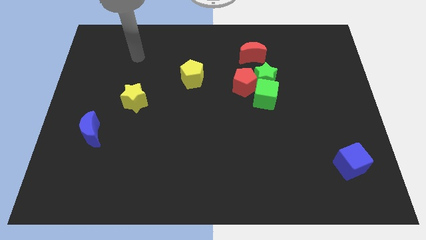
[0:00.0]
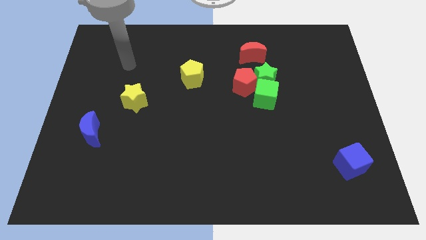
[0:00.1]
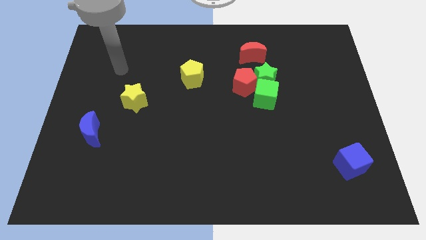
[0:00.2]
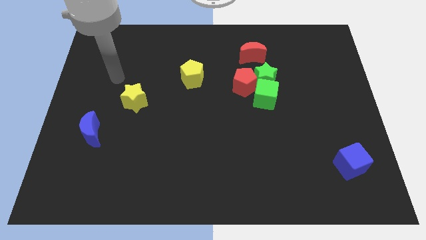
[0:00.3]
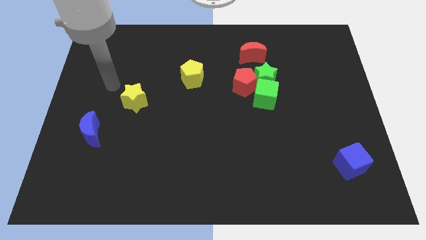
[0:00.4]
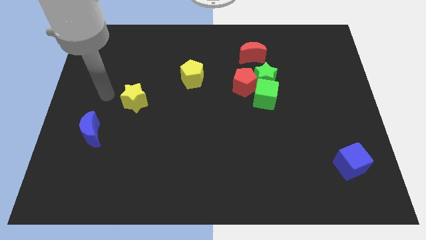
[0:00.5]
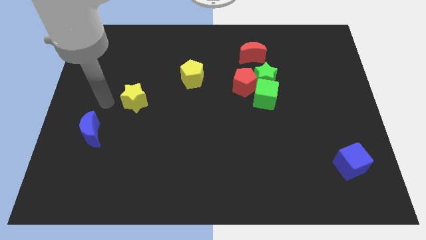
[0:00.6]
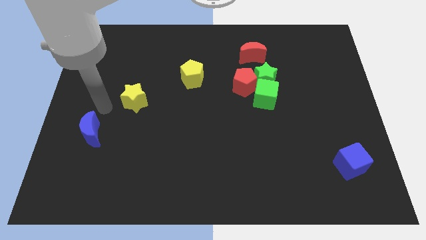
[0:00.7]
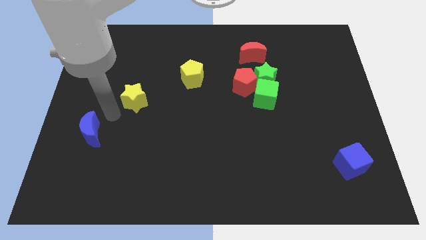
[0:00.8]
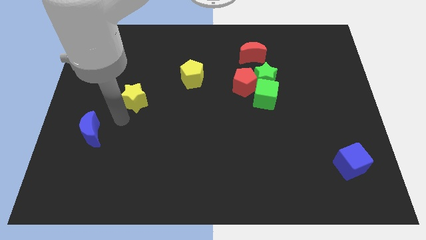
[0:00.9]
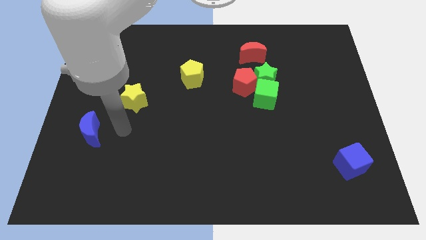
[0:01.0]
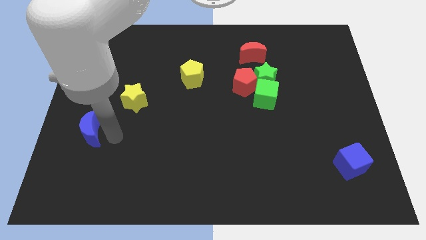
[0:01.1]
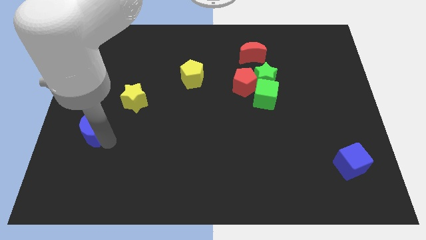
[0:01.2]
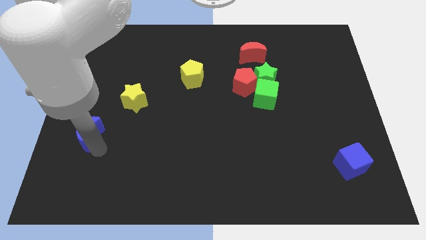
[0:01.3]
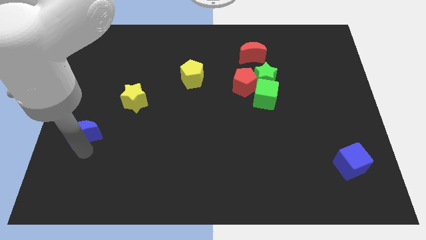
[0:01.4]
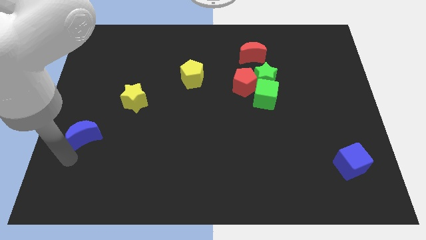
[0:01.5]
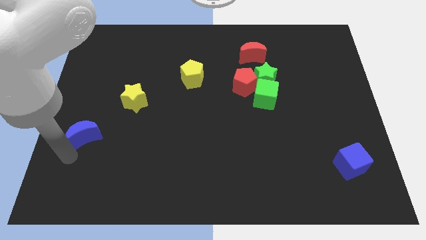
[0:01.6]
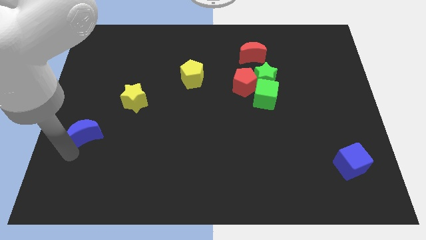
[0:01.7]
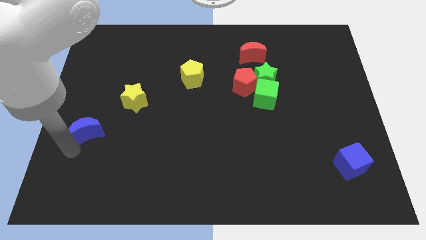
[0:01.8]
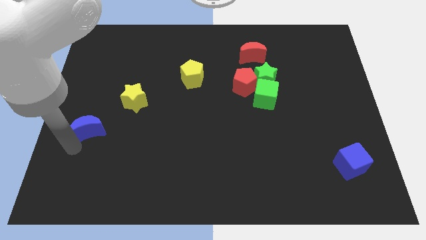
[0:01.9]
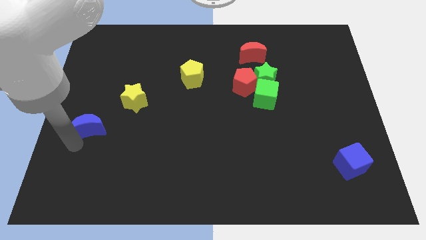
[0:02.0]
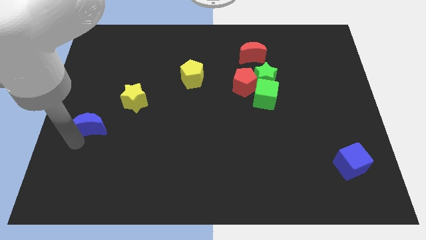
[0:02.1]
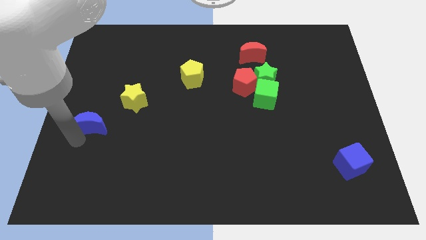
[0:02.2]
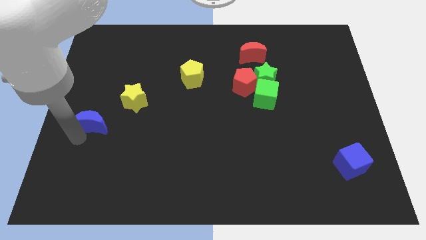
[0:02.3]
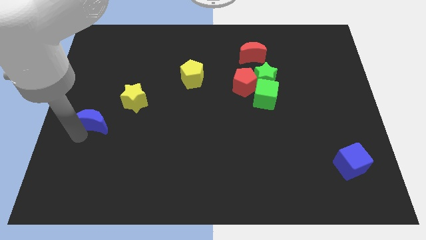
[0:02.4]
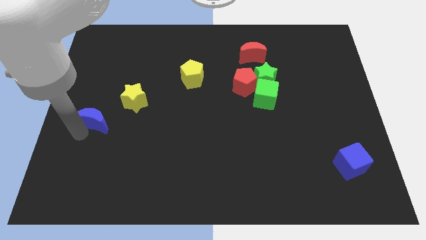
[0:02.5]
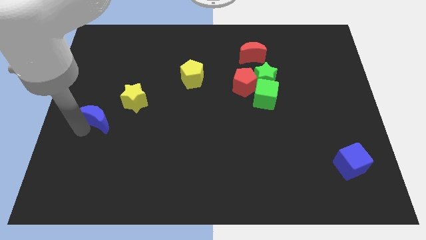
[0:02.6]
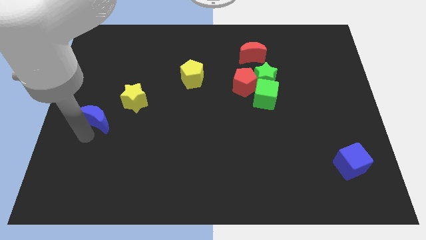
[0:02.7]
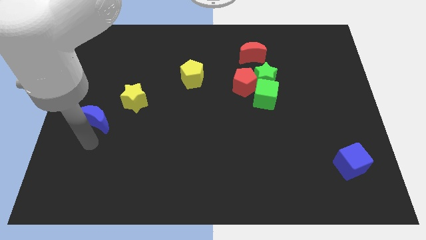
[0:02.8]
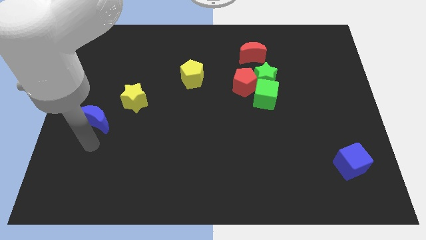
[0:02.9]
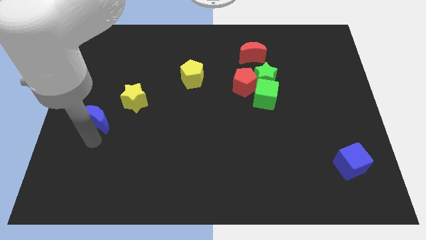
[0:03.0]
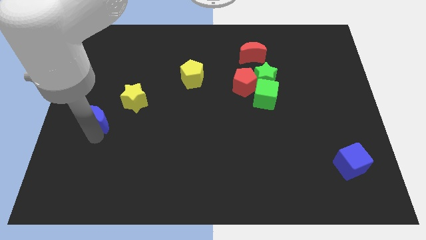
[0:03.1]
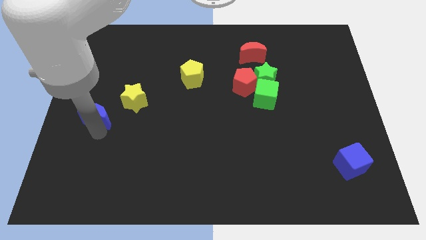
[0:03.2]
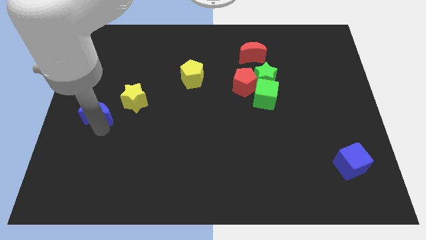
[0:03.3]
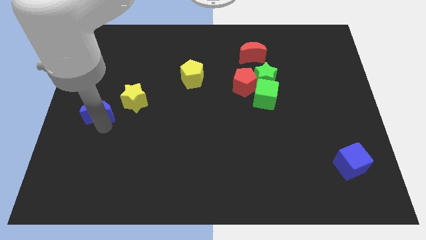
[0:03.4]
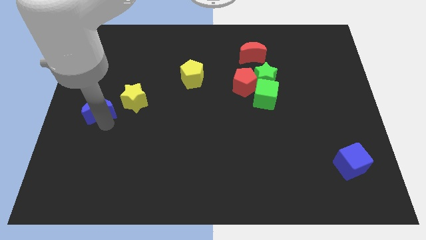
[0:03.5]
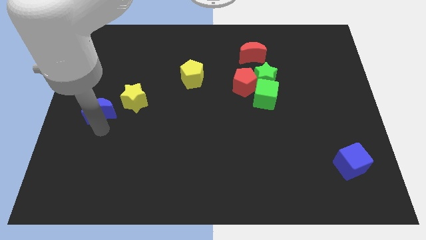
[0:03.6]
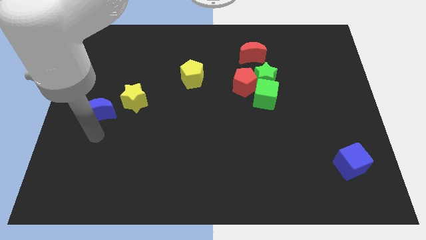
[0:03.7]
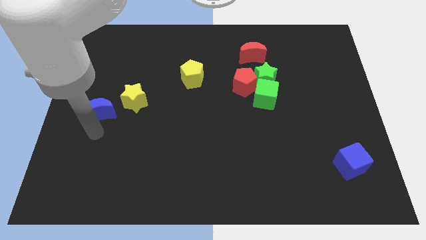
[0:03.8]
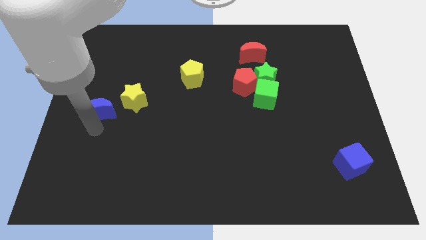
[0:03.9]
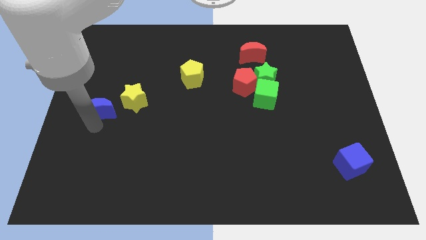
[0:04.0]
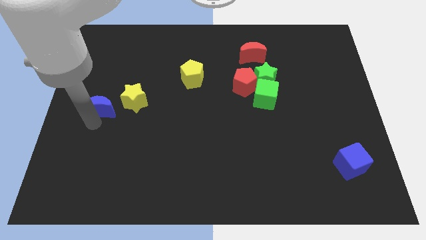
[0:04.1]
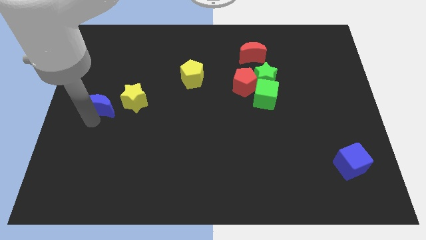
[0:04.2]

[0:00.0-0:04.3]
move the blue moon somewhat upwards

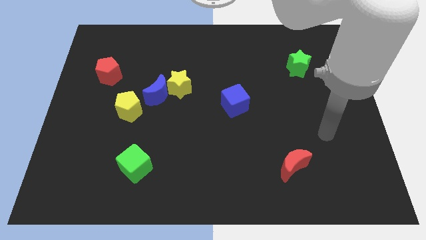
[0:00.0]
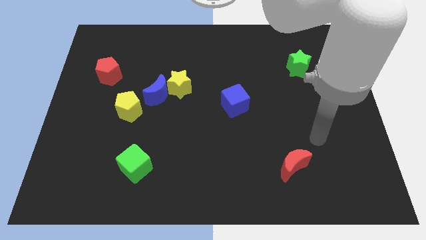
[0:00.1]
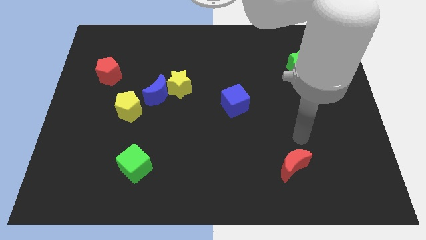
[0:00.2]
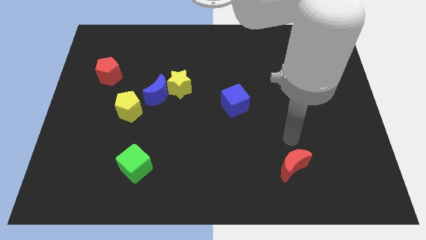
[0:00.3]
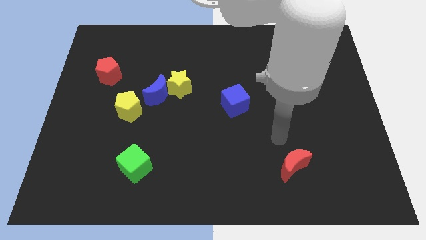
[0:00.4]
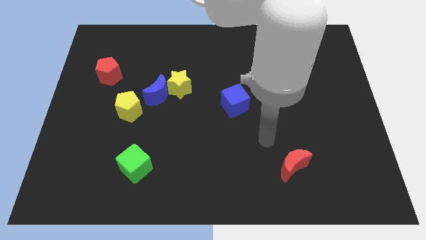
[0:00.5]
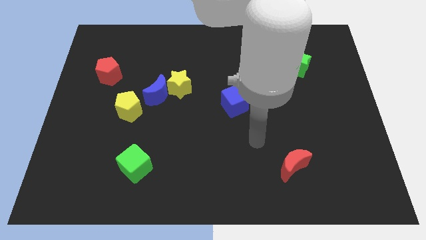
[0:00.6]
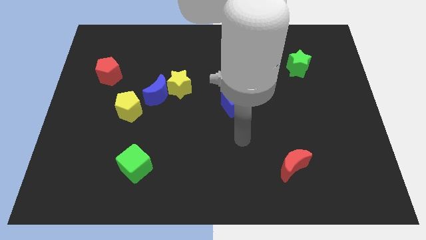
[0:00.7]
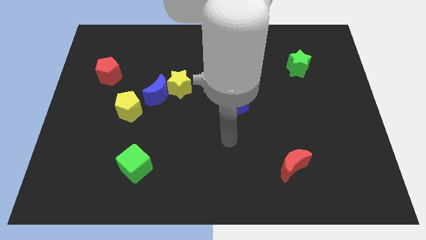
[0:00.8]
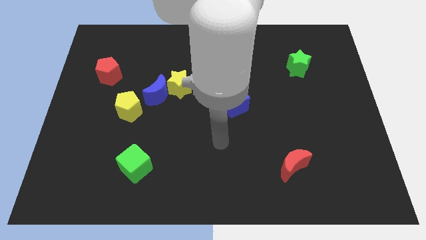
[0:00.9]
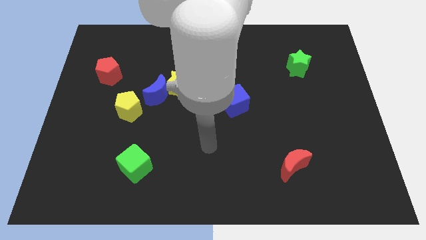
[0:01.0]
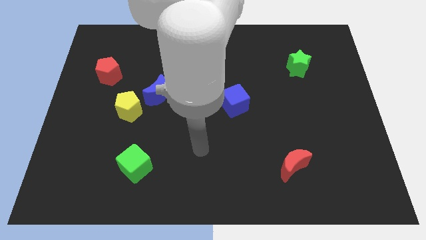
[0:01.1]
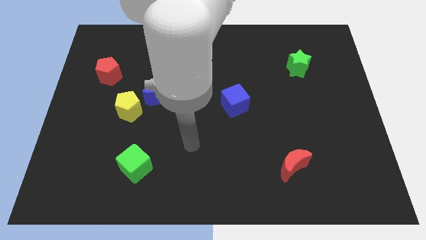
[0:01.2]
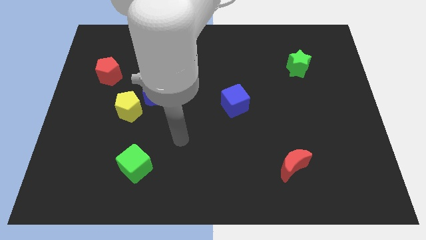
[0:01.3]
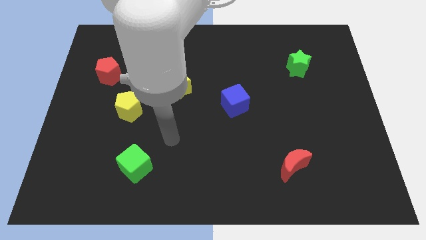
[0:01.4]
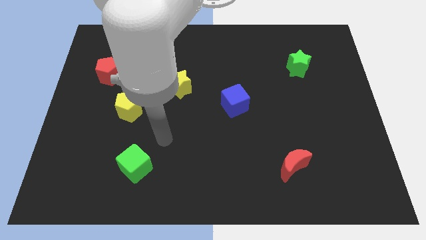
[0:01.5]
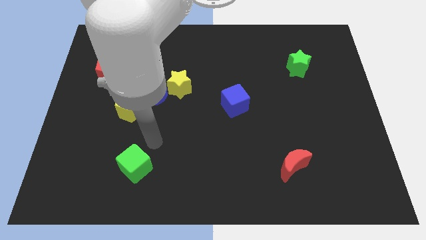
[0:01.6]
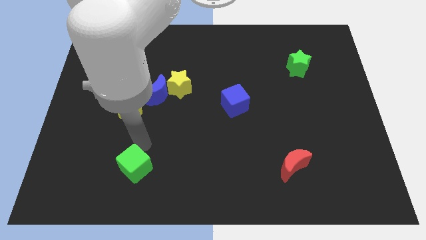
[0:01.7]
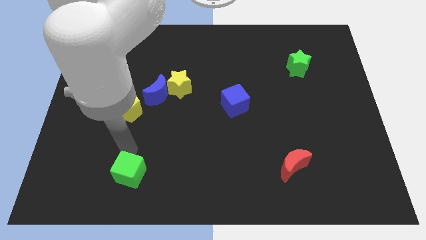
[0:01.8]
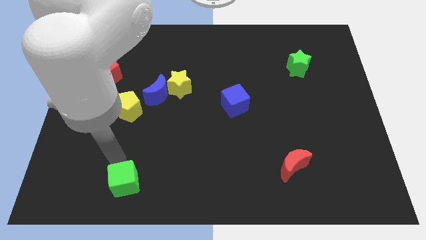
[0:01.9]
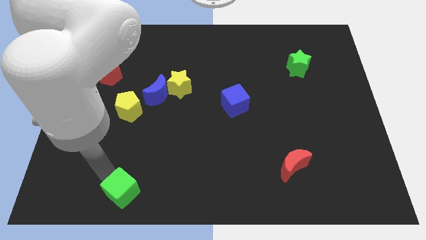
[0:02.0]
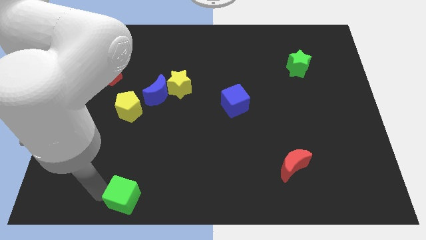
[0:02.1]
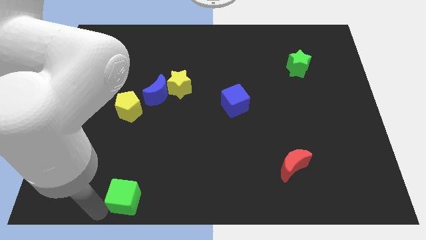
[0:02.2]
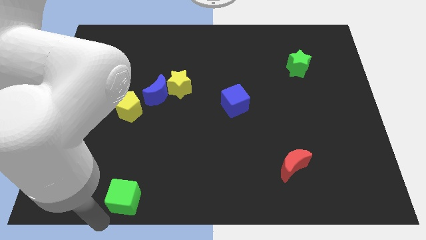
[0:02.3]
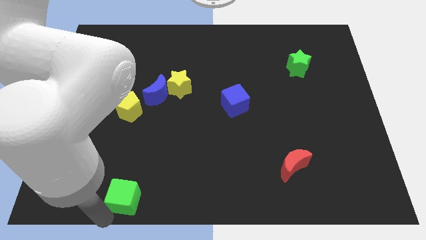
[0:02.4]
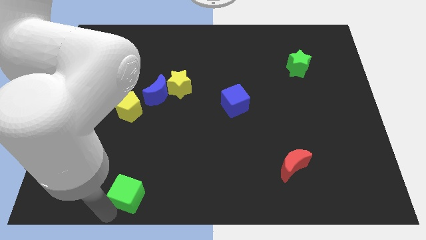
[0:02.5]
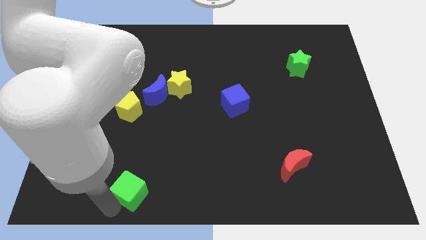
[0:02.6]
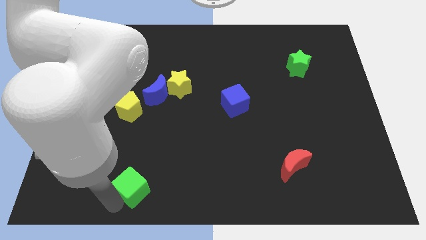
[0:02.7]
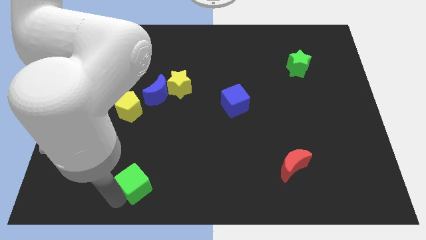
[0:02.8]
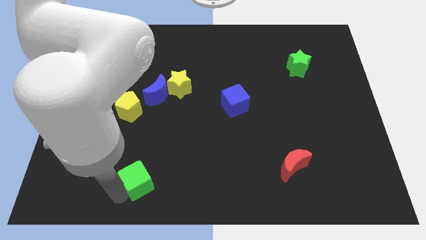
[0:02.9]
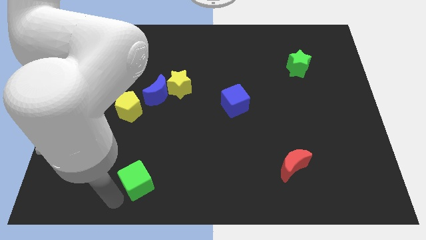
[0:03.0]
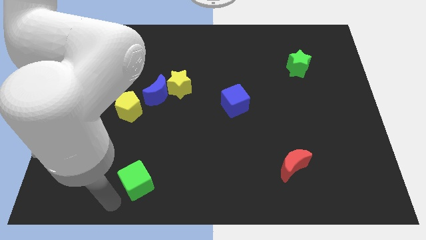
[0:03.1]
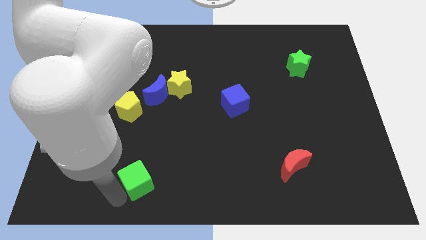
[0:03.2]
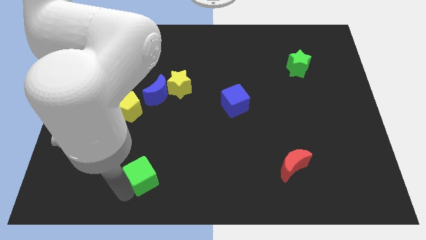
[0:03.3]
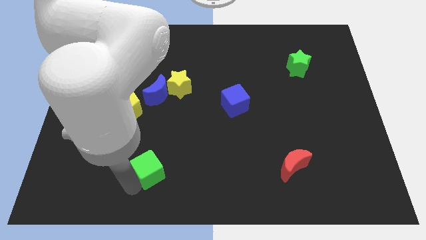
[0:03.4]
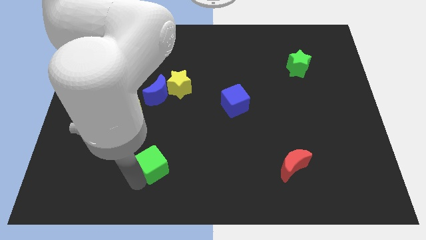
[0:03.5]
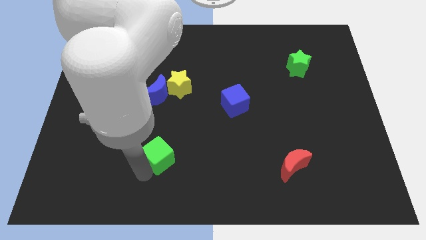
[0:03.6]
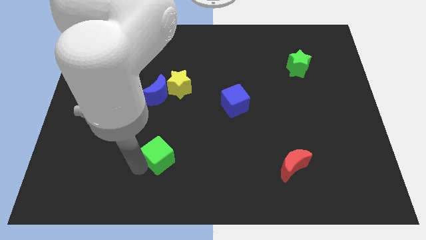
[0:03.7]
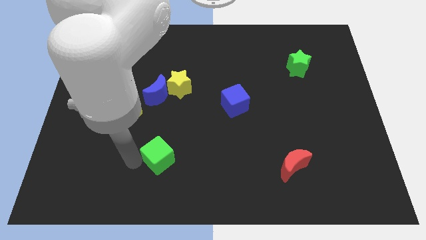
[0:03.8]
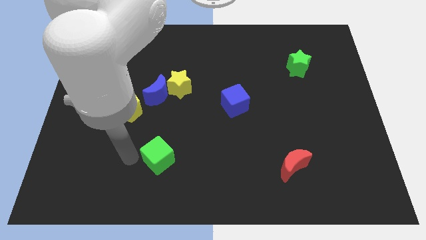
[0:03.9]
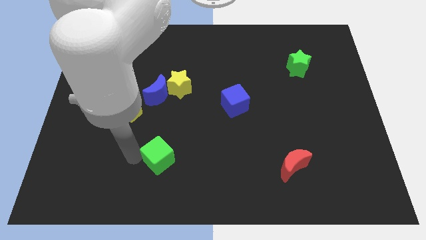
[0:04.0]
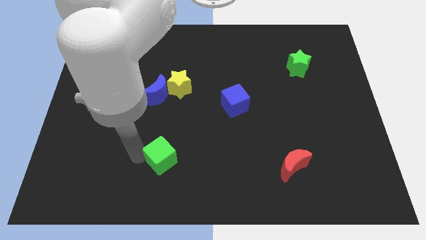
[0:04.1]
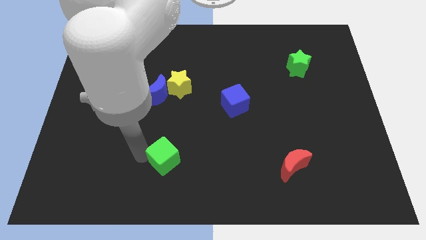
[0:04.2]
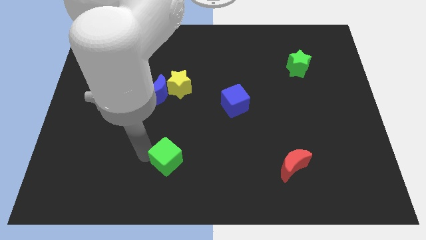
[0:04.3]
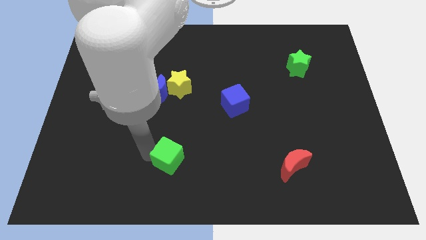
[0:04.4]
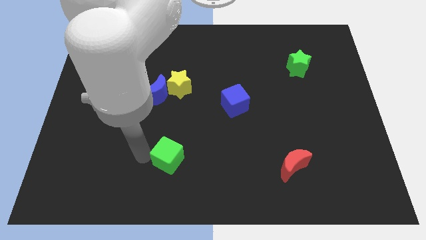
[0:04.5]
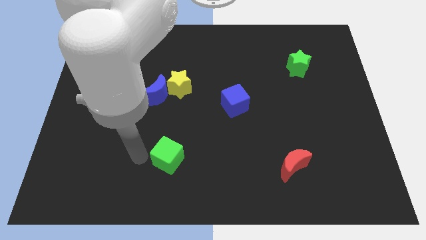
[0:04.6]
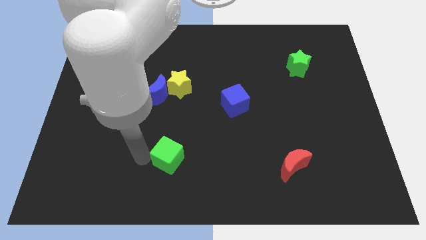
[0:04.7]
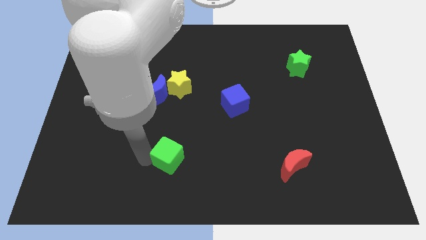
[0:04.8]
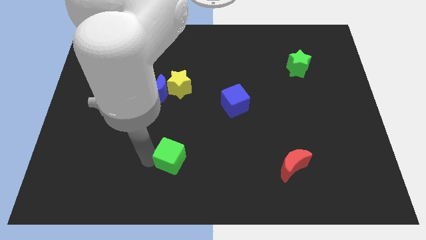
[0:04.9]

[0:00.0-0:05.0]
slightly push the green cube right
